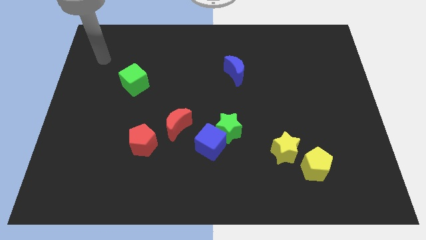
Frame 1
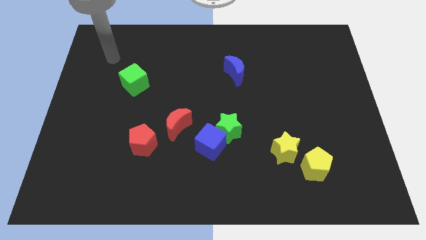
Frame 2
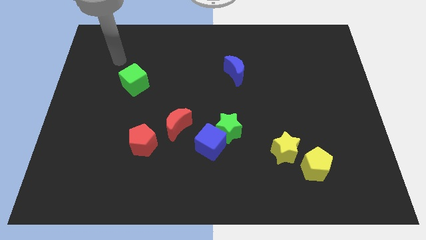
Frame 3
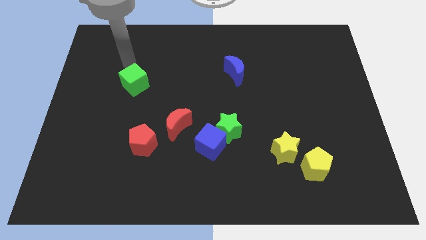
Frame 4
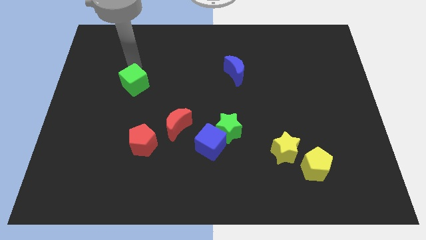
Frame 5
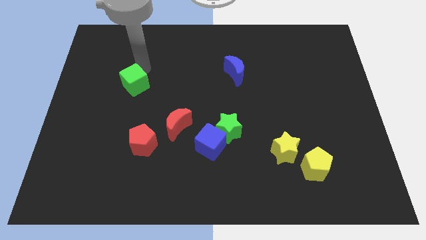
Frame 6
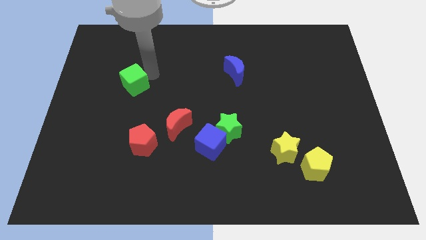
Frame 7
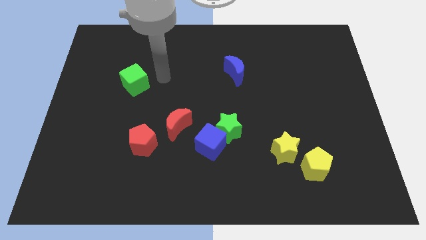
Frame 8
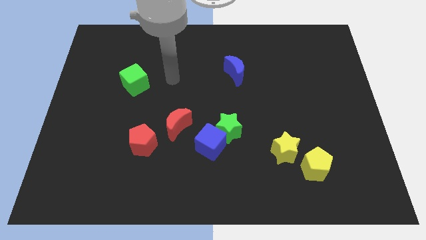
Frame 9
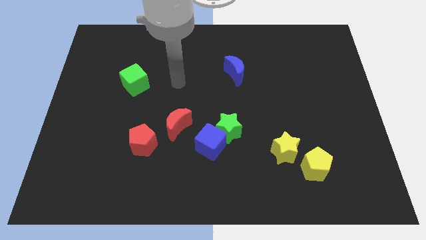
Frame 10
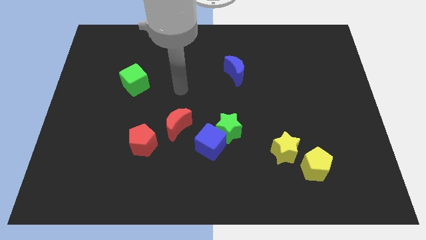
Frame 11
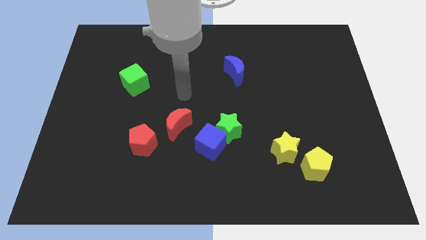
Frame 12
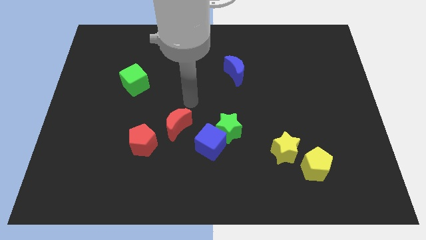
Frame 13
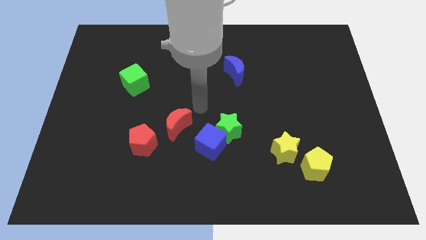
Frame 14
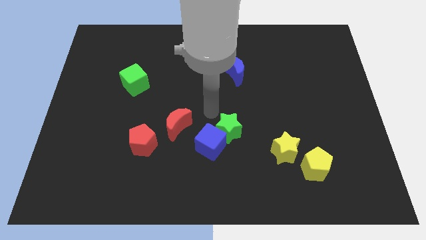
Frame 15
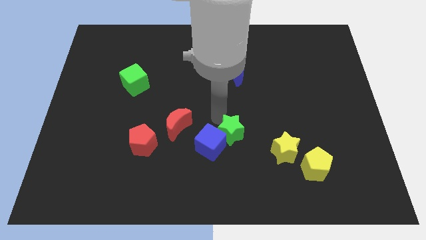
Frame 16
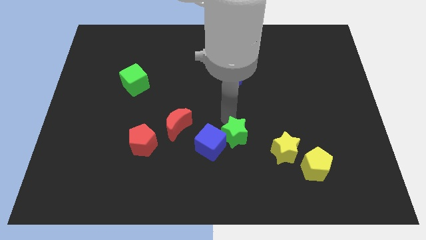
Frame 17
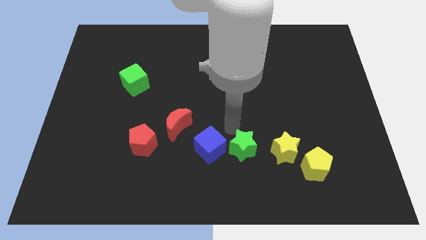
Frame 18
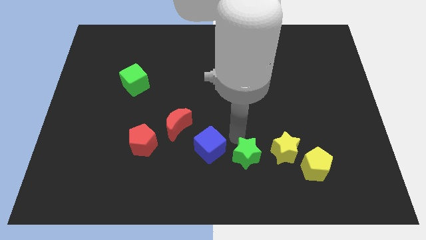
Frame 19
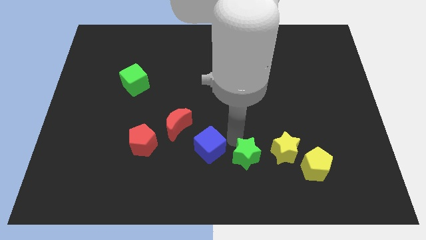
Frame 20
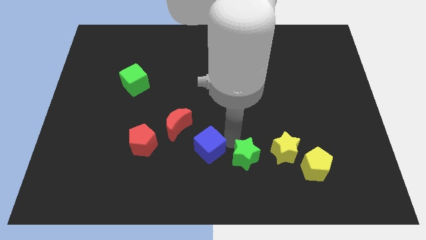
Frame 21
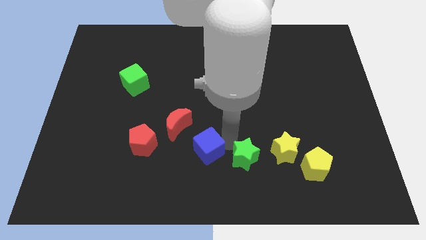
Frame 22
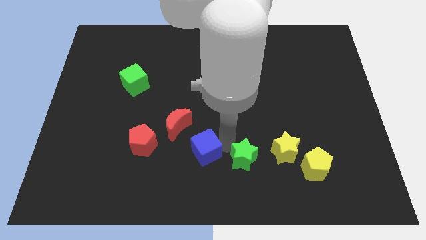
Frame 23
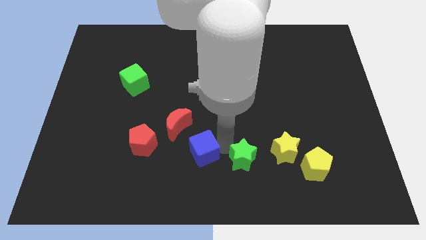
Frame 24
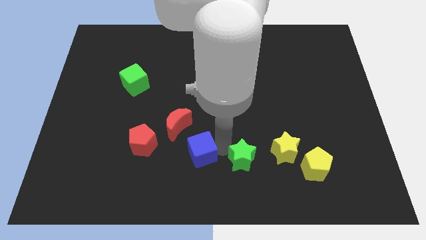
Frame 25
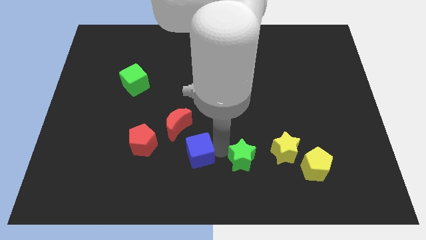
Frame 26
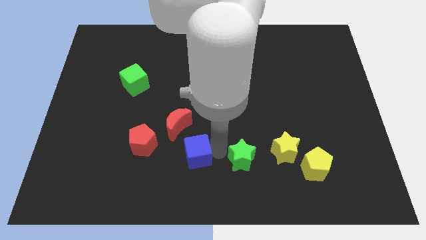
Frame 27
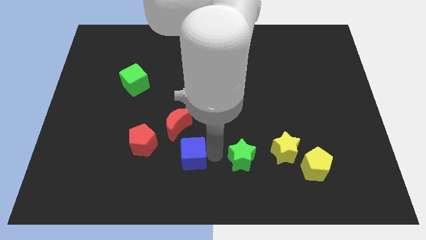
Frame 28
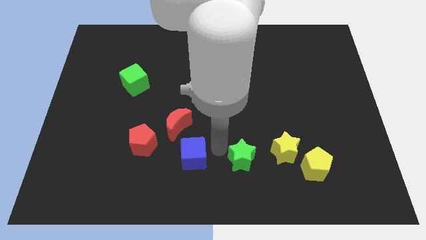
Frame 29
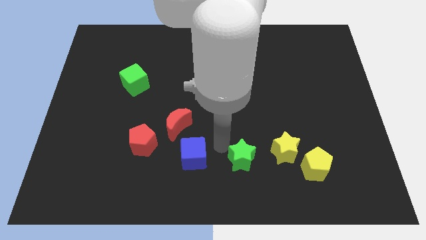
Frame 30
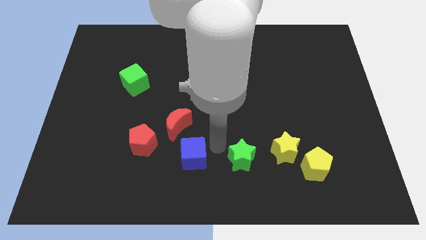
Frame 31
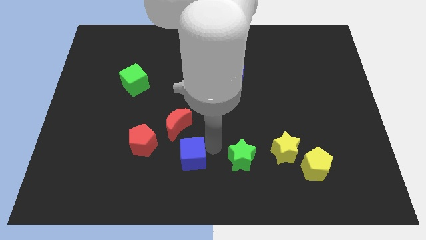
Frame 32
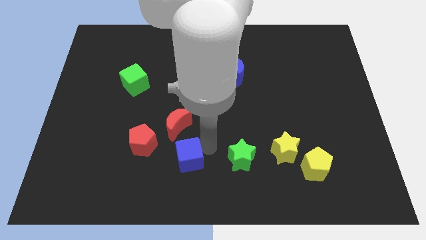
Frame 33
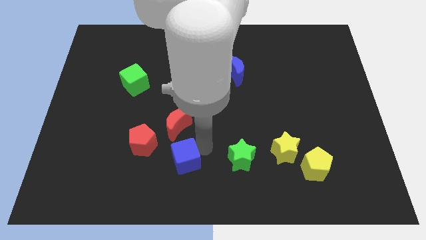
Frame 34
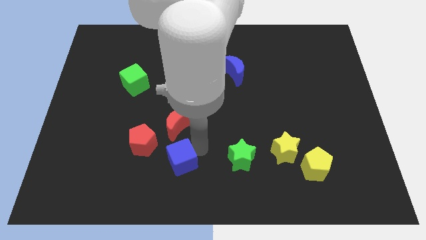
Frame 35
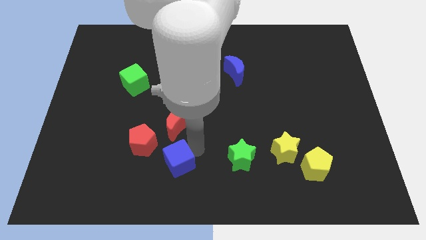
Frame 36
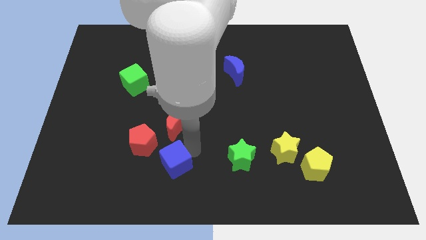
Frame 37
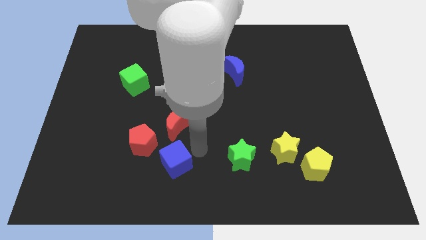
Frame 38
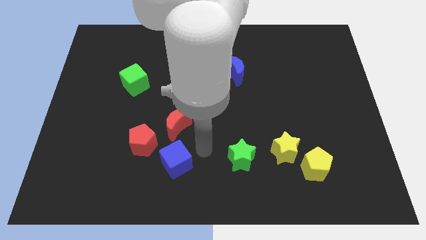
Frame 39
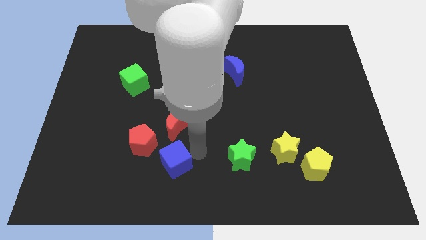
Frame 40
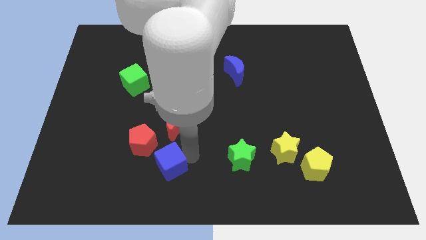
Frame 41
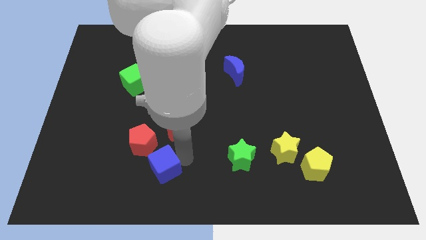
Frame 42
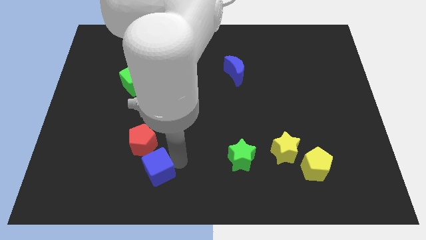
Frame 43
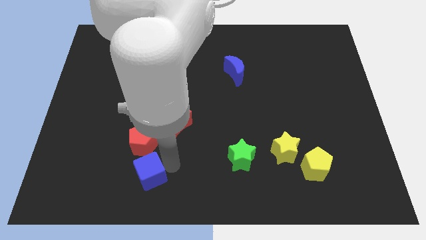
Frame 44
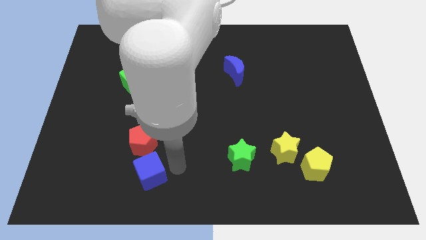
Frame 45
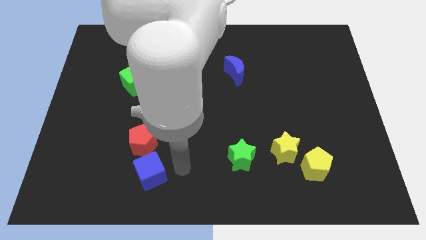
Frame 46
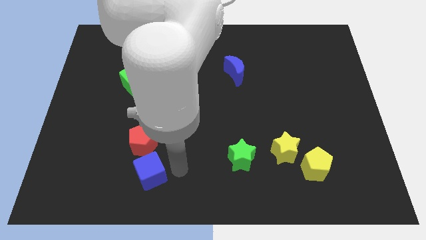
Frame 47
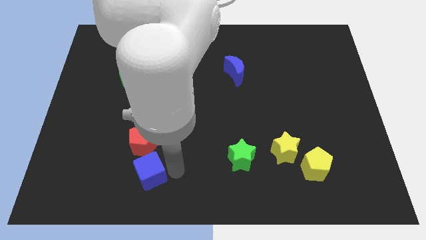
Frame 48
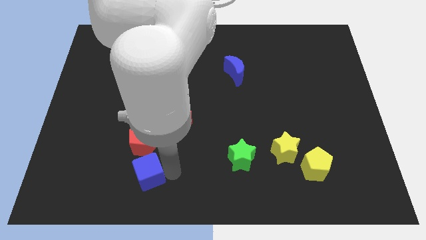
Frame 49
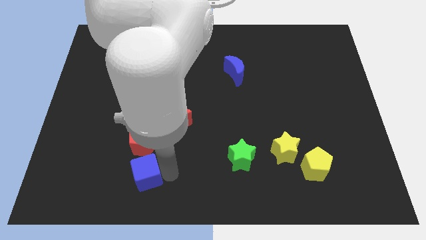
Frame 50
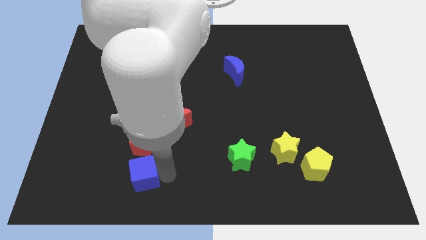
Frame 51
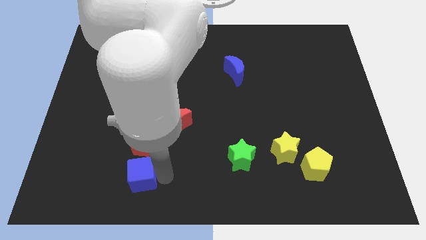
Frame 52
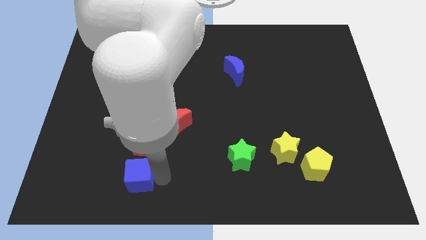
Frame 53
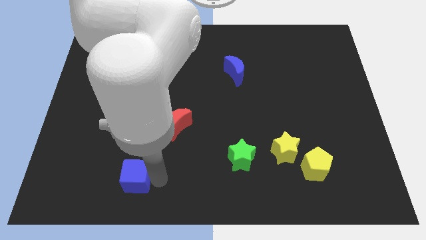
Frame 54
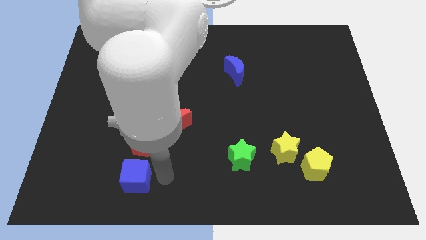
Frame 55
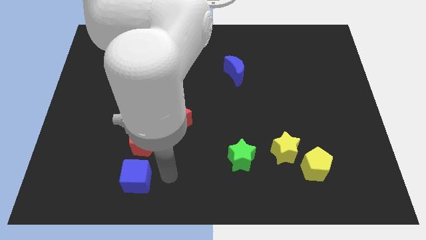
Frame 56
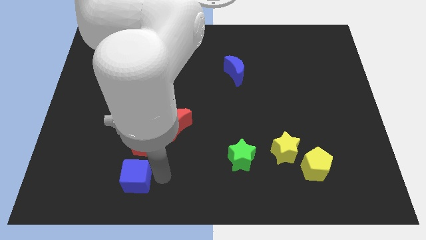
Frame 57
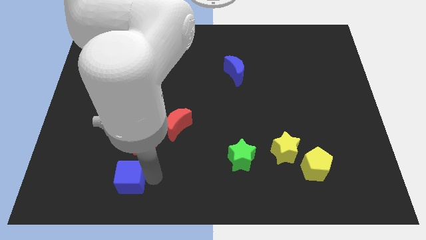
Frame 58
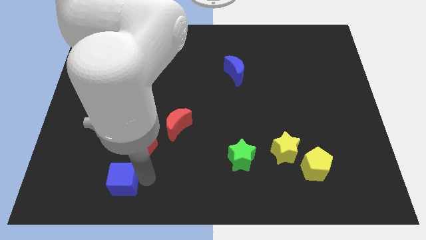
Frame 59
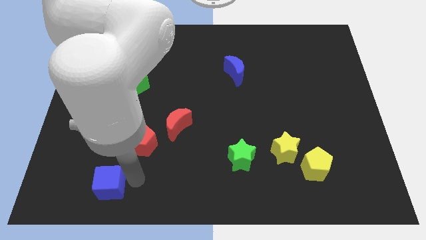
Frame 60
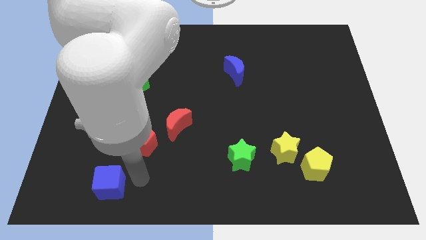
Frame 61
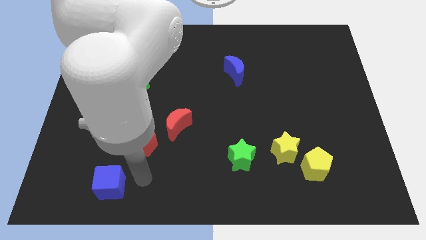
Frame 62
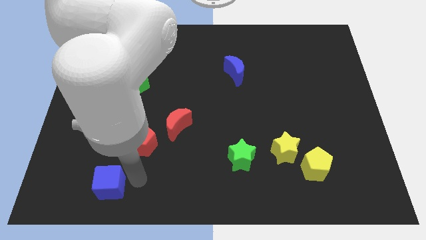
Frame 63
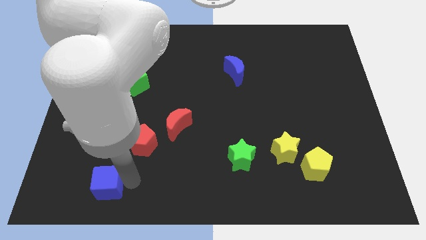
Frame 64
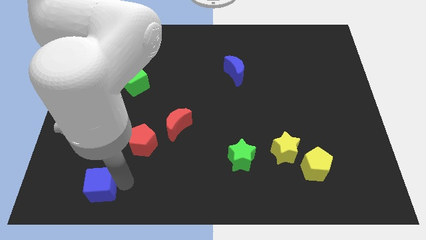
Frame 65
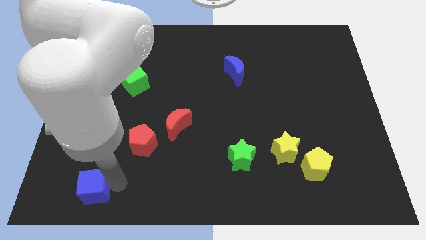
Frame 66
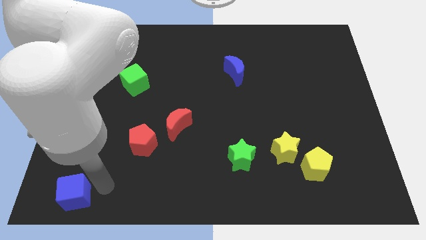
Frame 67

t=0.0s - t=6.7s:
slide the blue cube to the lower left corner
